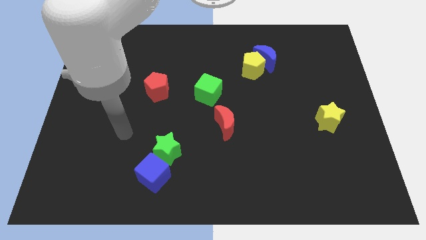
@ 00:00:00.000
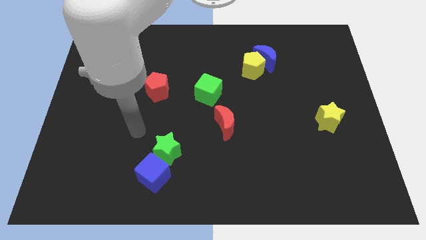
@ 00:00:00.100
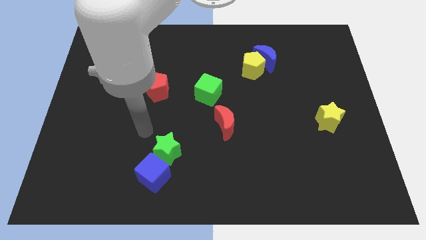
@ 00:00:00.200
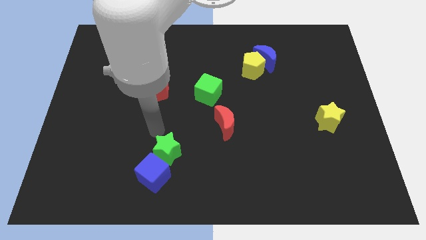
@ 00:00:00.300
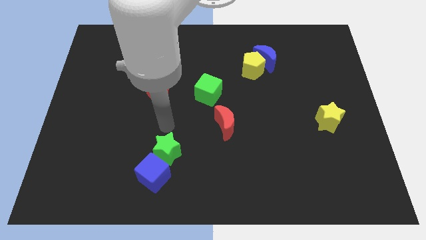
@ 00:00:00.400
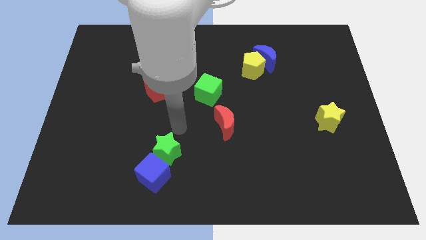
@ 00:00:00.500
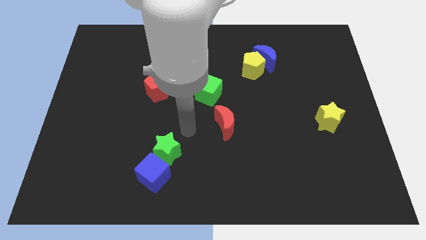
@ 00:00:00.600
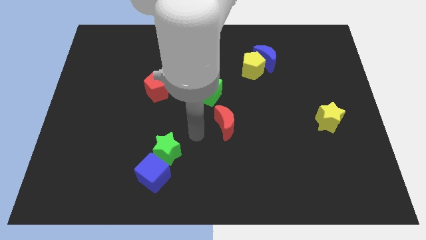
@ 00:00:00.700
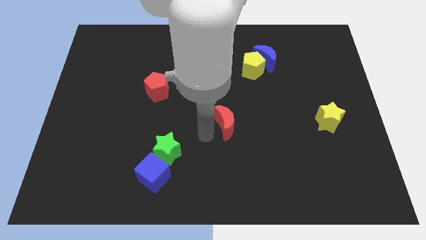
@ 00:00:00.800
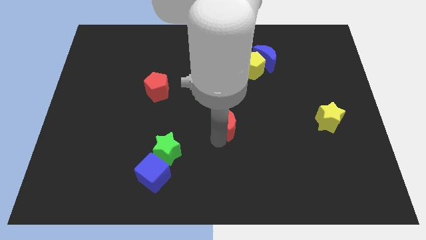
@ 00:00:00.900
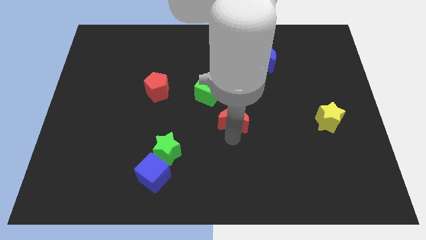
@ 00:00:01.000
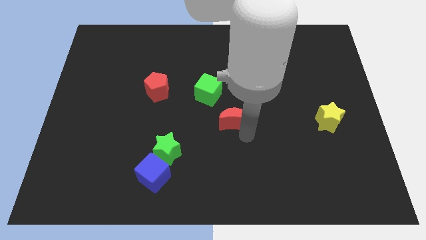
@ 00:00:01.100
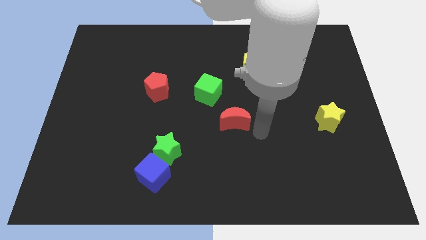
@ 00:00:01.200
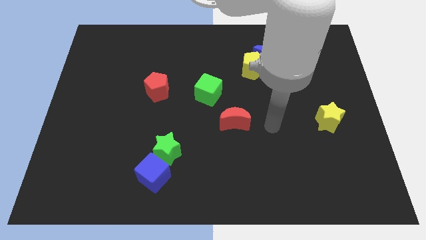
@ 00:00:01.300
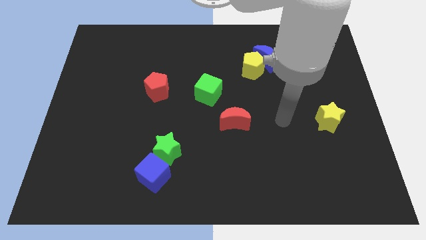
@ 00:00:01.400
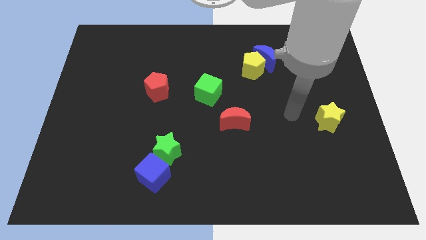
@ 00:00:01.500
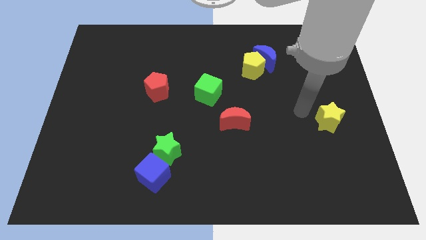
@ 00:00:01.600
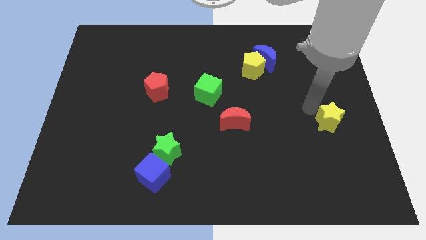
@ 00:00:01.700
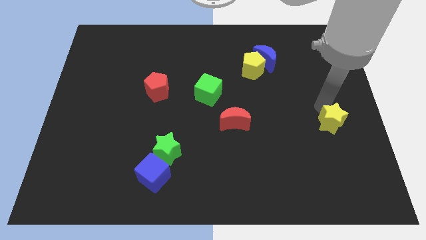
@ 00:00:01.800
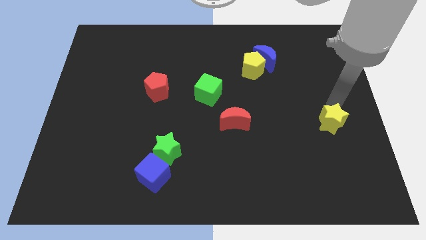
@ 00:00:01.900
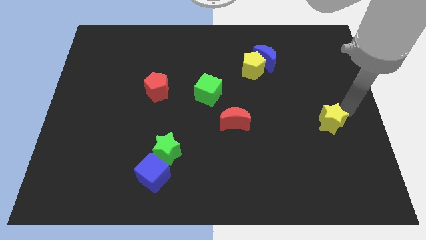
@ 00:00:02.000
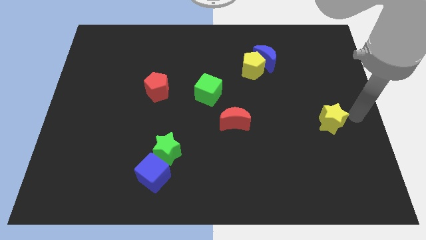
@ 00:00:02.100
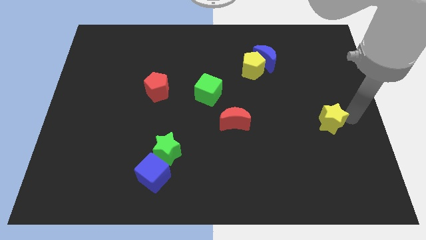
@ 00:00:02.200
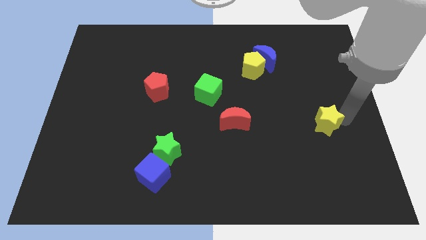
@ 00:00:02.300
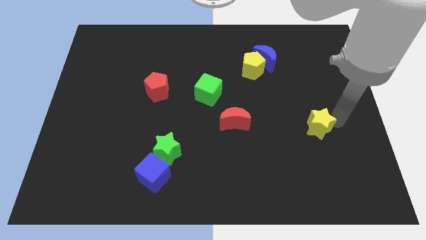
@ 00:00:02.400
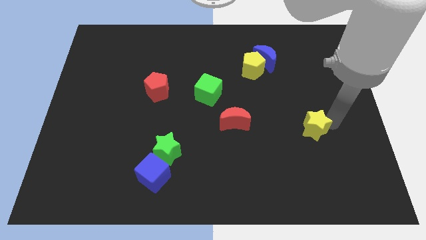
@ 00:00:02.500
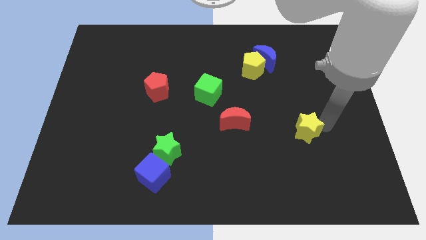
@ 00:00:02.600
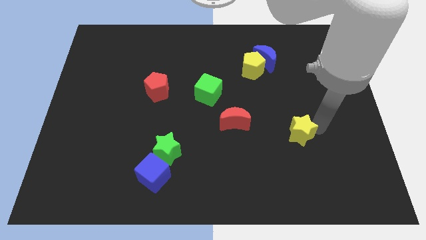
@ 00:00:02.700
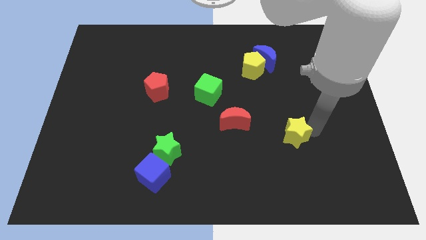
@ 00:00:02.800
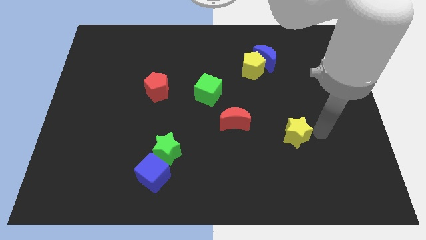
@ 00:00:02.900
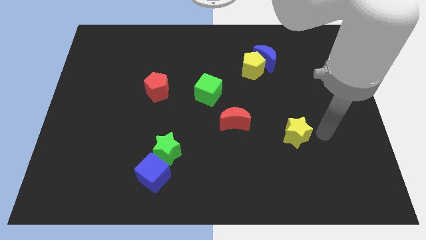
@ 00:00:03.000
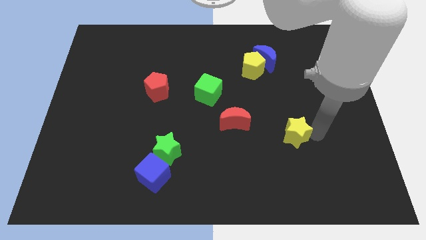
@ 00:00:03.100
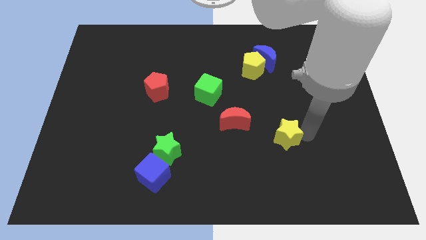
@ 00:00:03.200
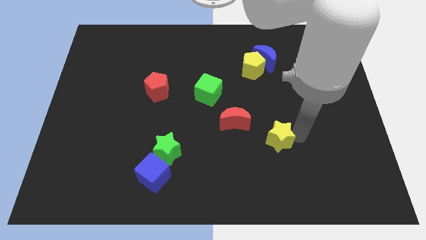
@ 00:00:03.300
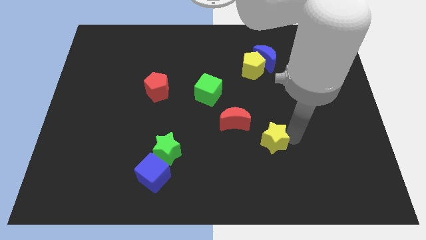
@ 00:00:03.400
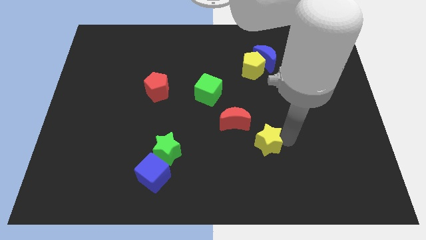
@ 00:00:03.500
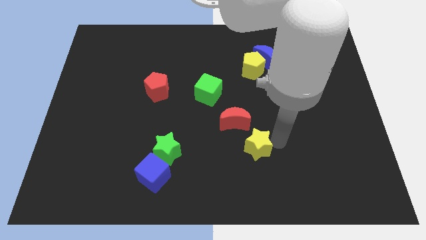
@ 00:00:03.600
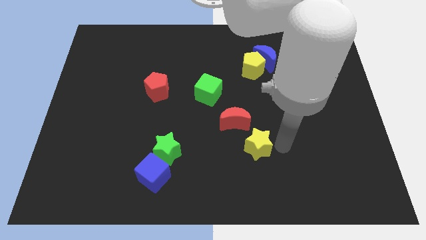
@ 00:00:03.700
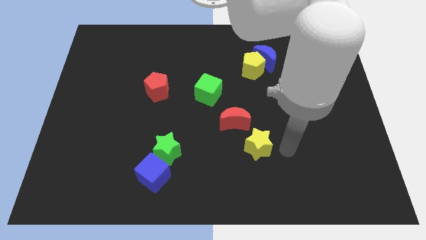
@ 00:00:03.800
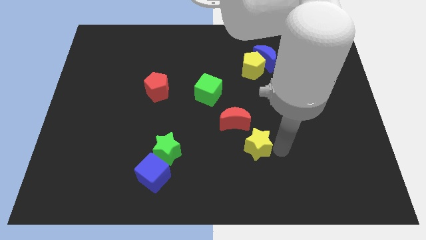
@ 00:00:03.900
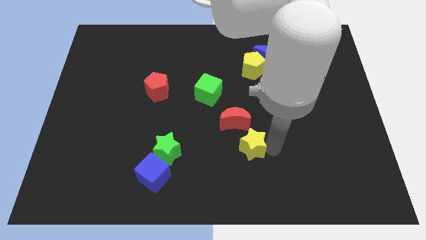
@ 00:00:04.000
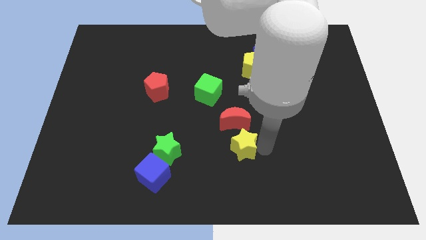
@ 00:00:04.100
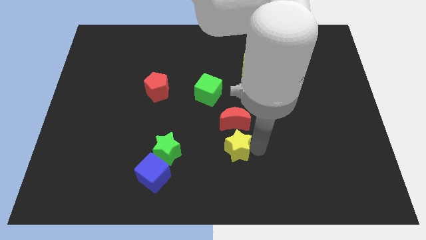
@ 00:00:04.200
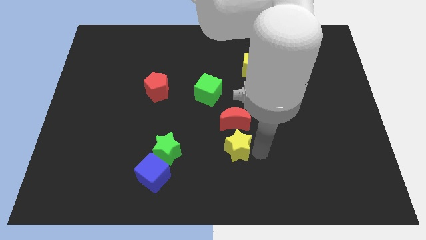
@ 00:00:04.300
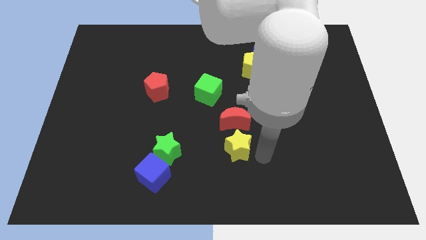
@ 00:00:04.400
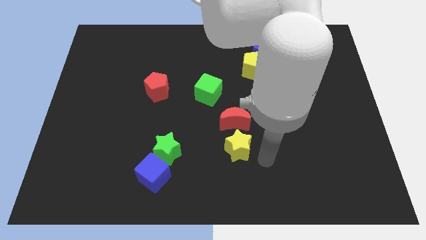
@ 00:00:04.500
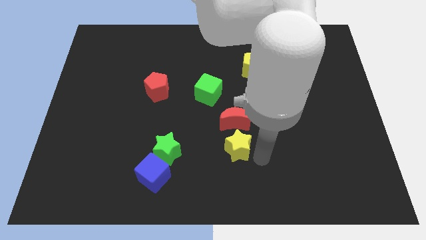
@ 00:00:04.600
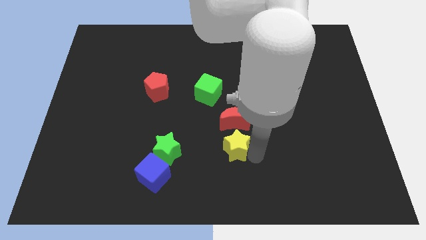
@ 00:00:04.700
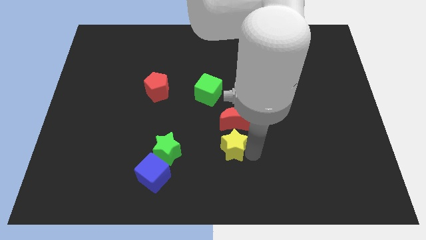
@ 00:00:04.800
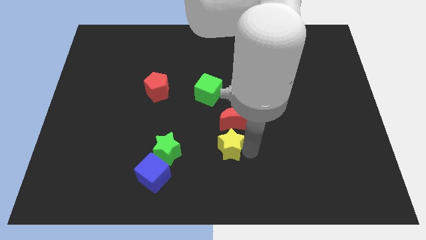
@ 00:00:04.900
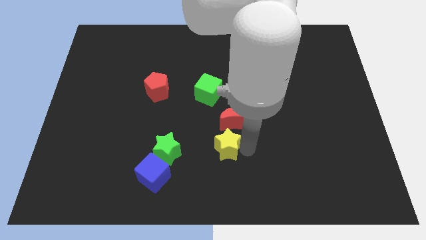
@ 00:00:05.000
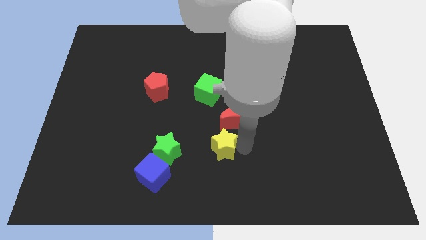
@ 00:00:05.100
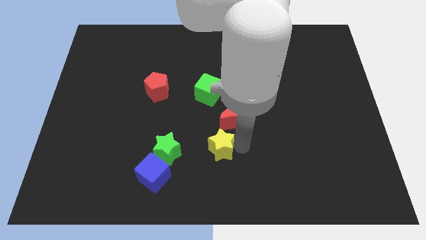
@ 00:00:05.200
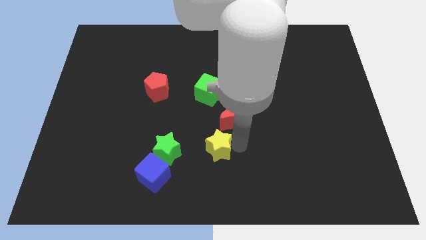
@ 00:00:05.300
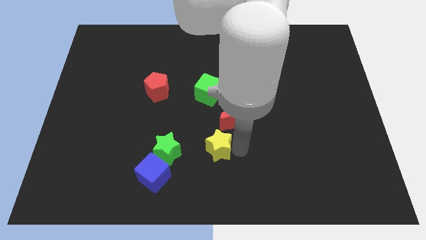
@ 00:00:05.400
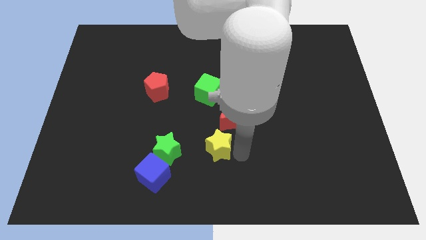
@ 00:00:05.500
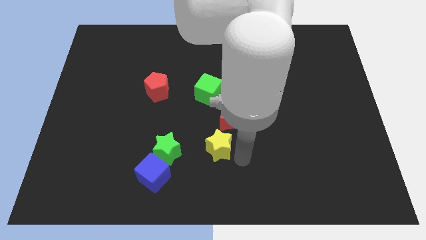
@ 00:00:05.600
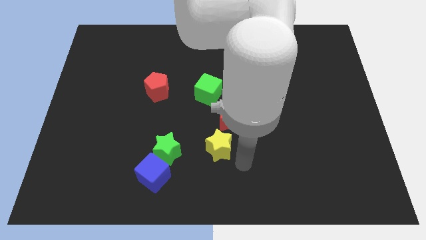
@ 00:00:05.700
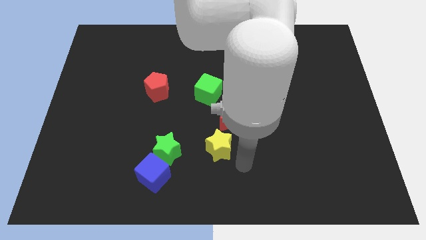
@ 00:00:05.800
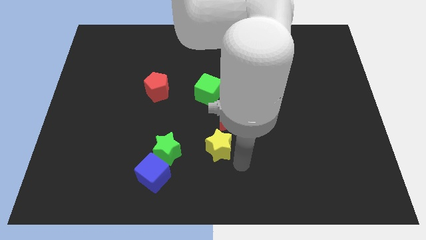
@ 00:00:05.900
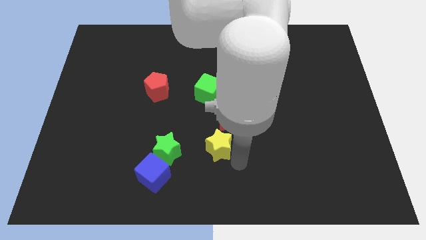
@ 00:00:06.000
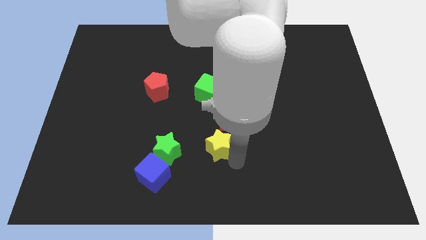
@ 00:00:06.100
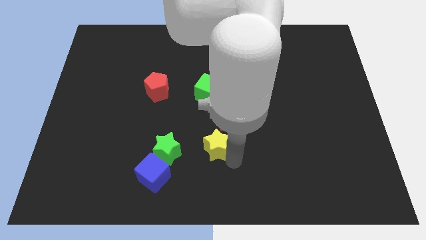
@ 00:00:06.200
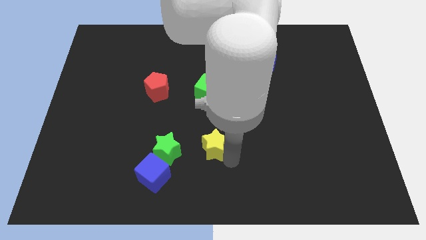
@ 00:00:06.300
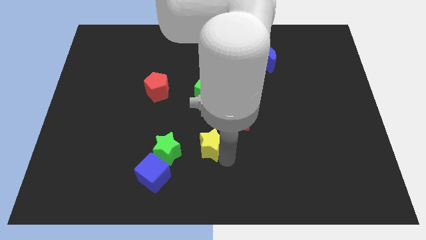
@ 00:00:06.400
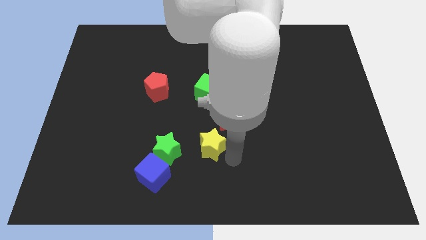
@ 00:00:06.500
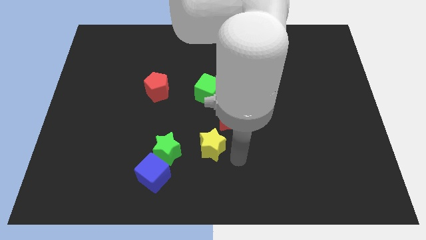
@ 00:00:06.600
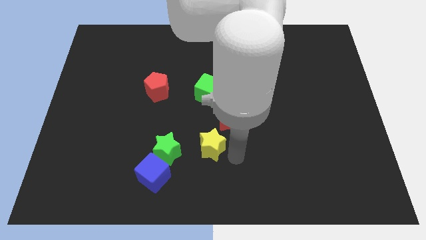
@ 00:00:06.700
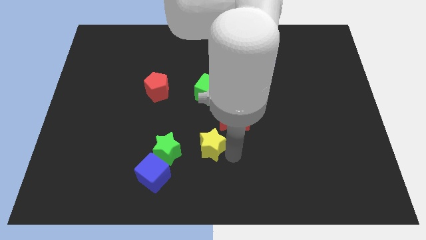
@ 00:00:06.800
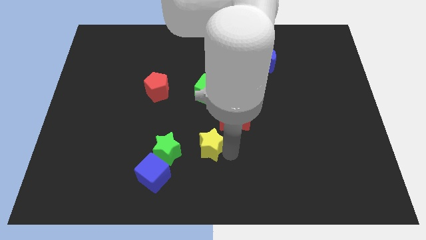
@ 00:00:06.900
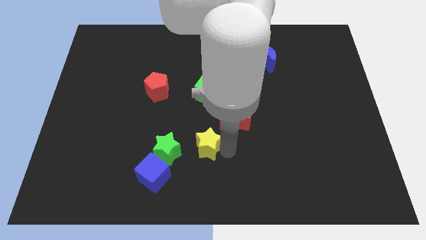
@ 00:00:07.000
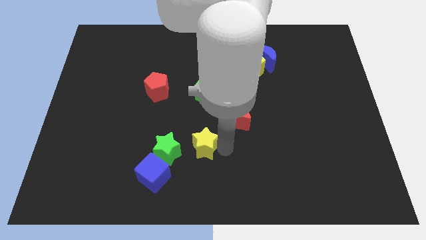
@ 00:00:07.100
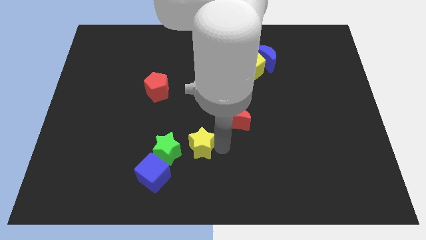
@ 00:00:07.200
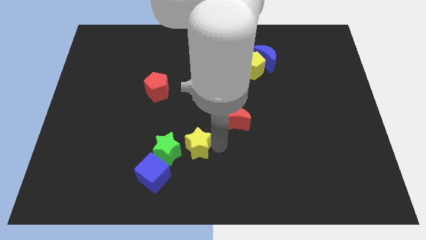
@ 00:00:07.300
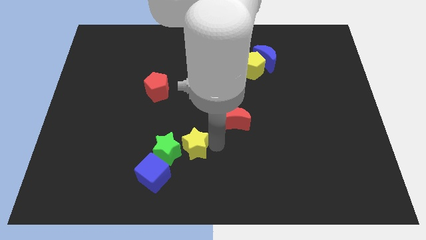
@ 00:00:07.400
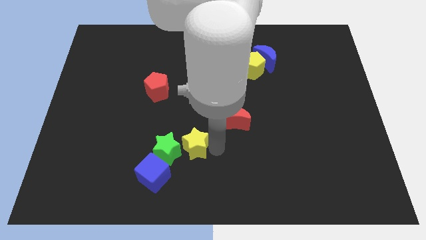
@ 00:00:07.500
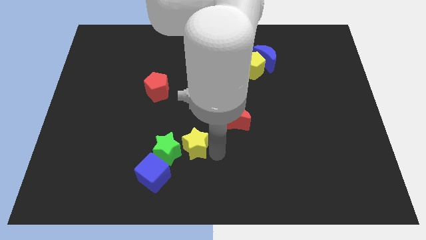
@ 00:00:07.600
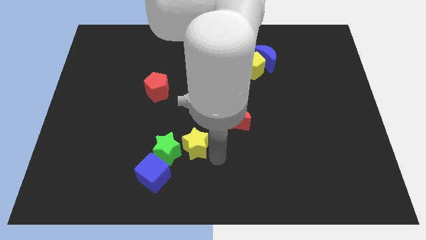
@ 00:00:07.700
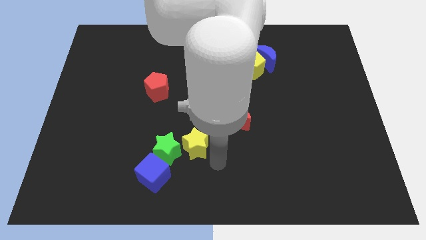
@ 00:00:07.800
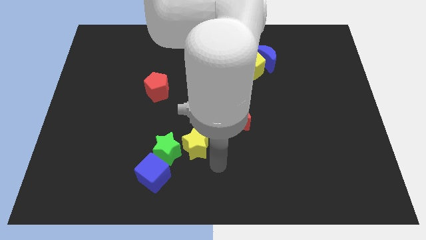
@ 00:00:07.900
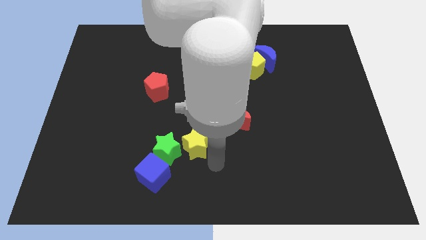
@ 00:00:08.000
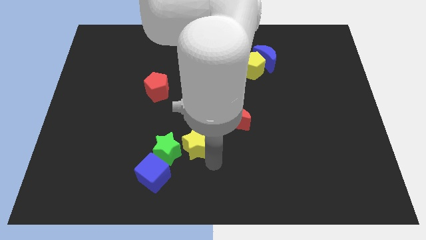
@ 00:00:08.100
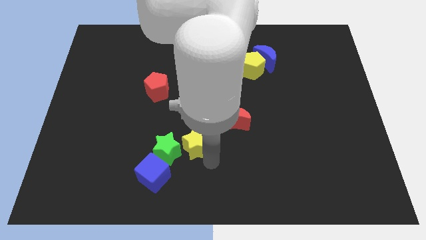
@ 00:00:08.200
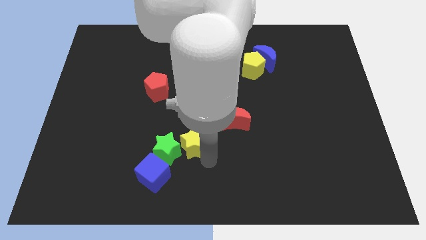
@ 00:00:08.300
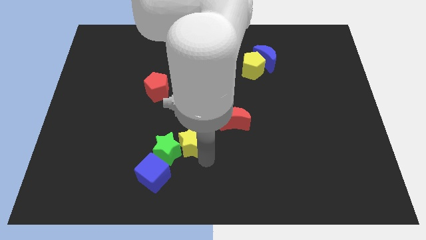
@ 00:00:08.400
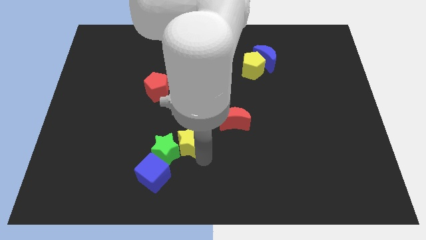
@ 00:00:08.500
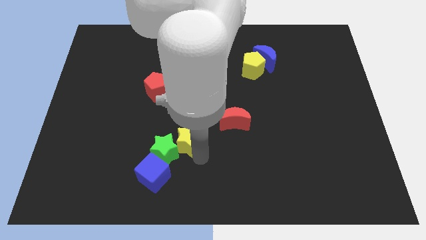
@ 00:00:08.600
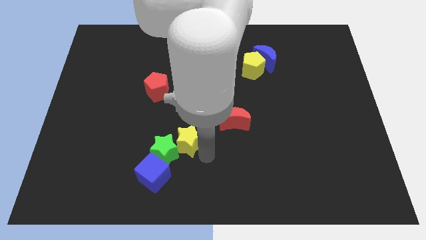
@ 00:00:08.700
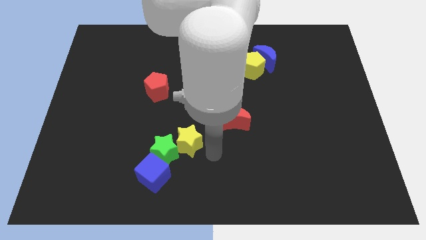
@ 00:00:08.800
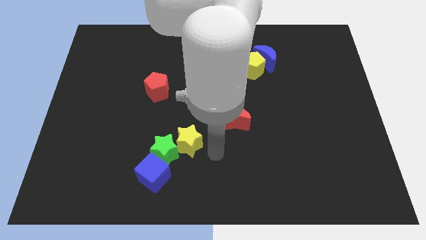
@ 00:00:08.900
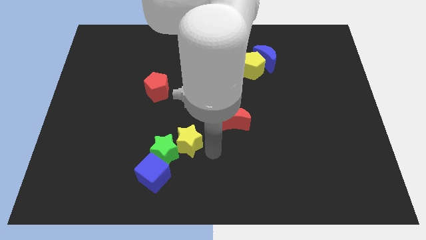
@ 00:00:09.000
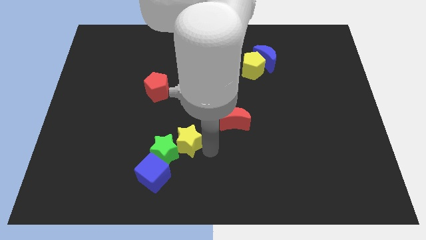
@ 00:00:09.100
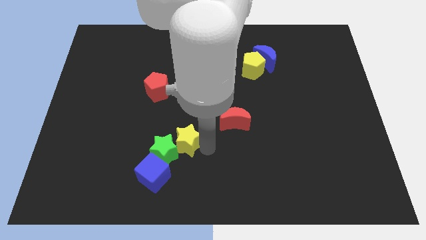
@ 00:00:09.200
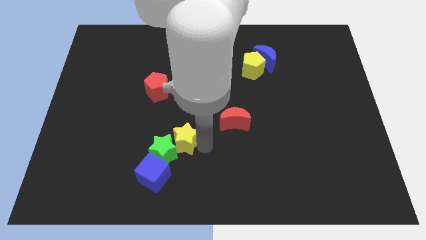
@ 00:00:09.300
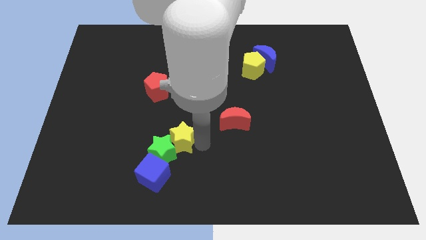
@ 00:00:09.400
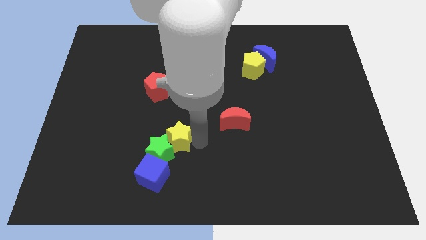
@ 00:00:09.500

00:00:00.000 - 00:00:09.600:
put the yellow star to the top of the blue cube
